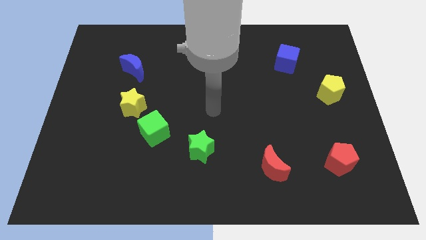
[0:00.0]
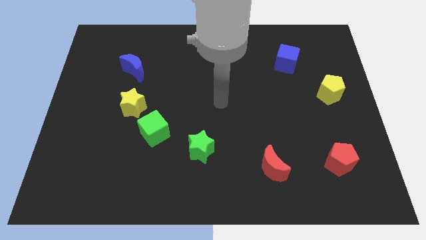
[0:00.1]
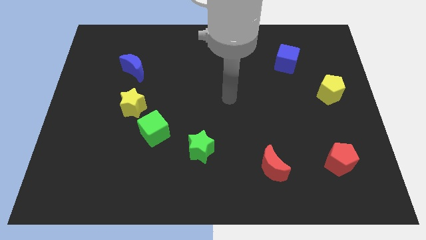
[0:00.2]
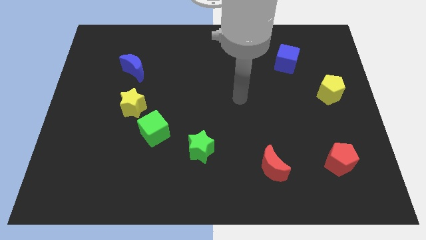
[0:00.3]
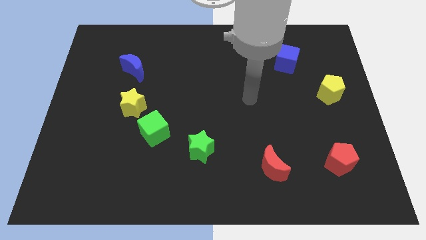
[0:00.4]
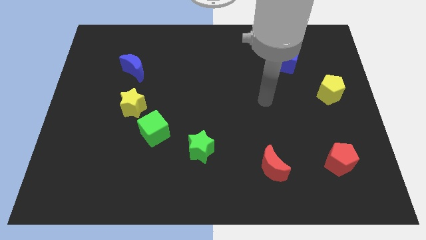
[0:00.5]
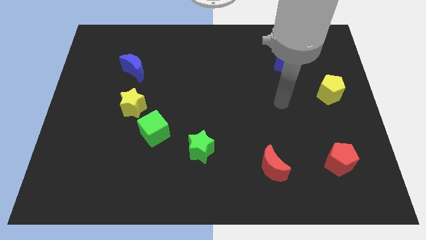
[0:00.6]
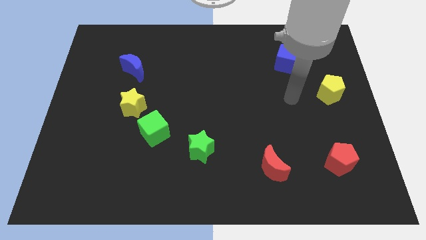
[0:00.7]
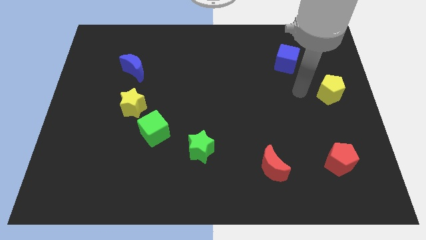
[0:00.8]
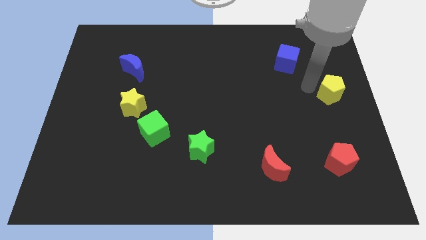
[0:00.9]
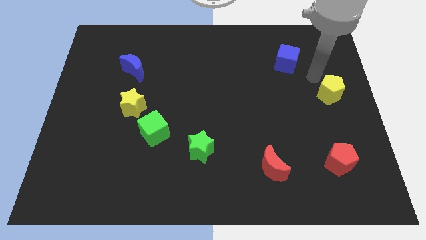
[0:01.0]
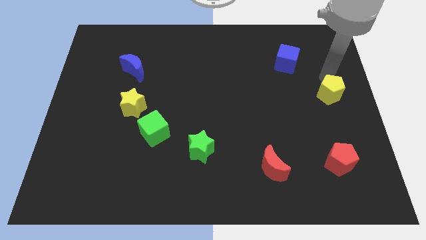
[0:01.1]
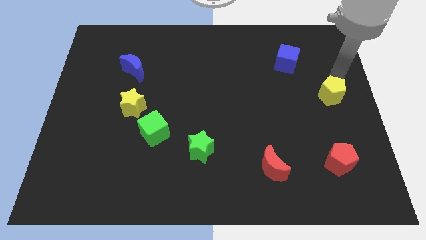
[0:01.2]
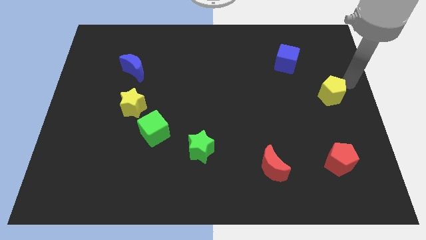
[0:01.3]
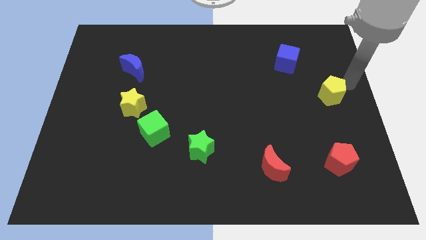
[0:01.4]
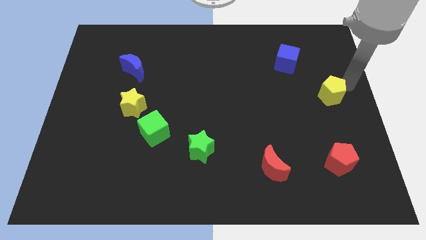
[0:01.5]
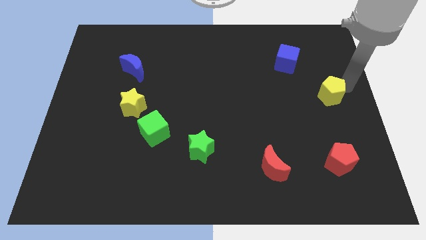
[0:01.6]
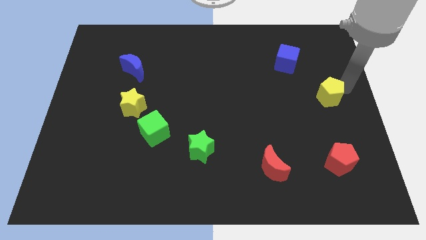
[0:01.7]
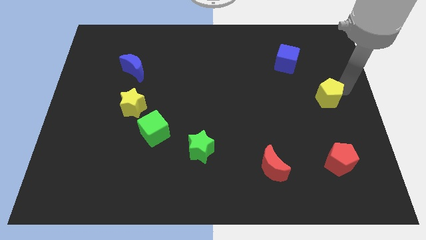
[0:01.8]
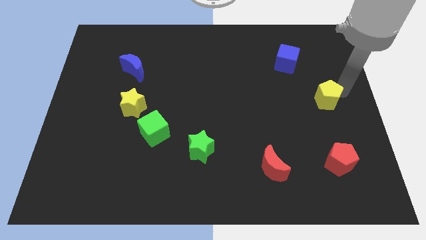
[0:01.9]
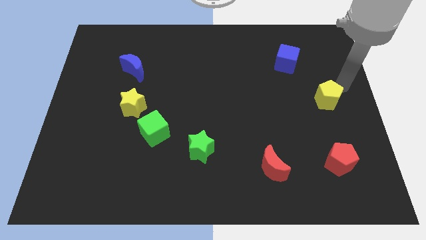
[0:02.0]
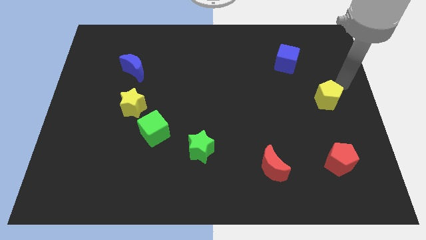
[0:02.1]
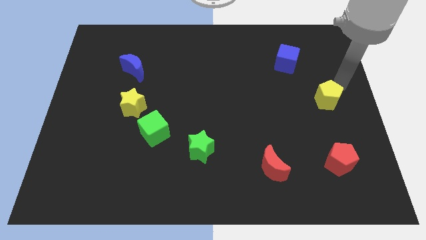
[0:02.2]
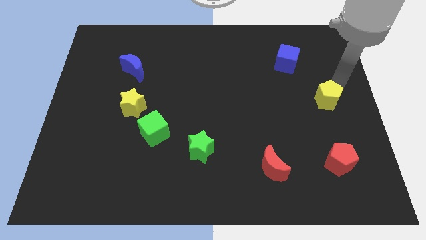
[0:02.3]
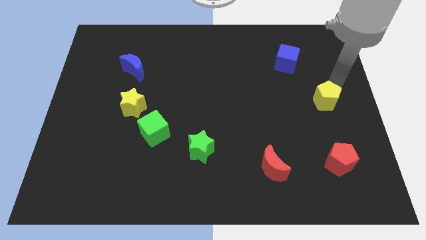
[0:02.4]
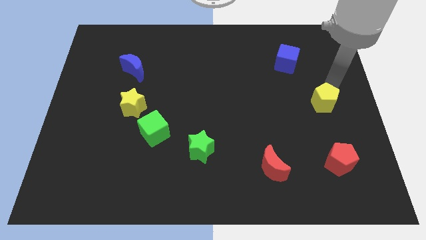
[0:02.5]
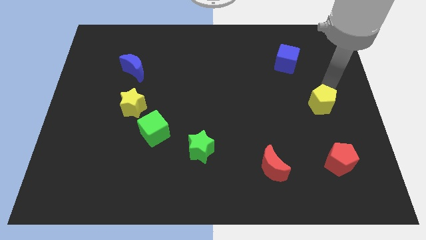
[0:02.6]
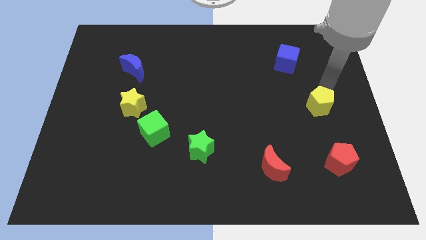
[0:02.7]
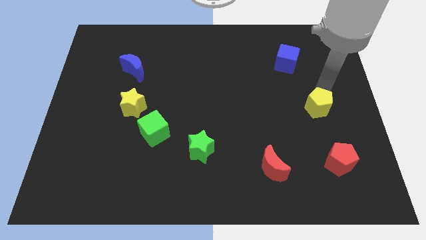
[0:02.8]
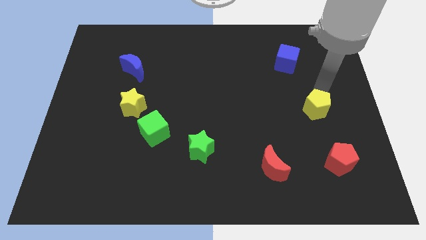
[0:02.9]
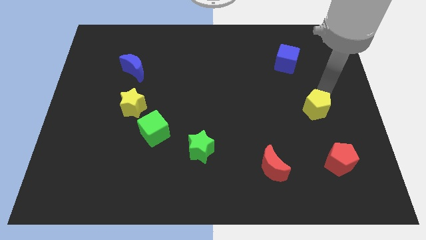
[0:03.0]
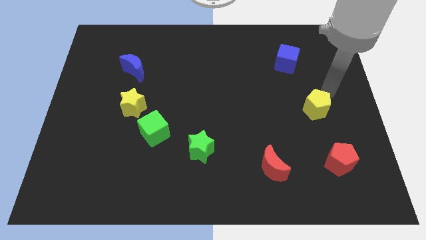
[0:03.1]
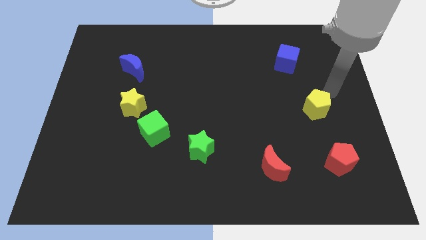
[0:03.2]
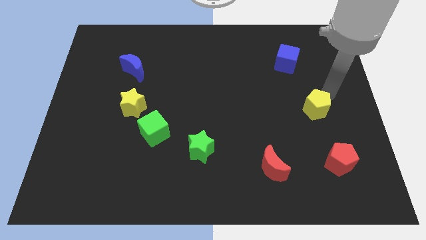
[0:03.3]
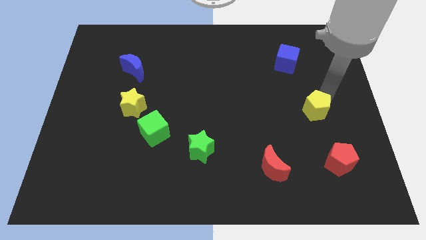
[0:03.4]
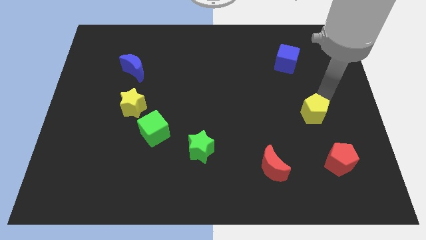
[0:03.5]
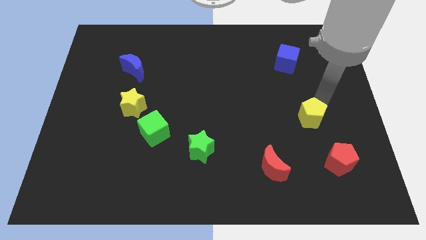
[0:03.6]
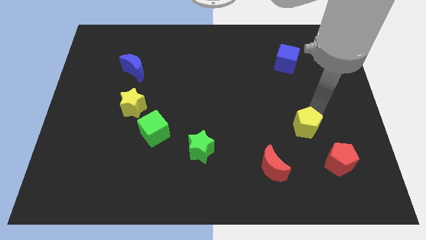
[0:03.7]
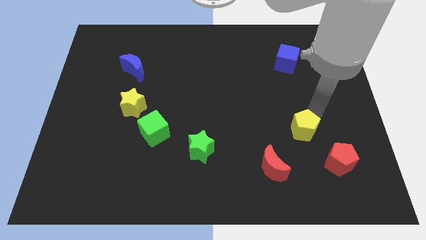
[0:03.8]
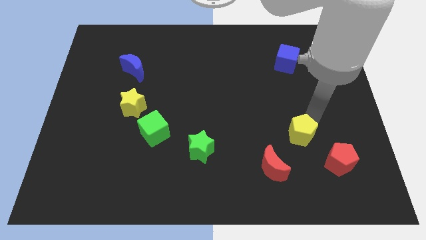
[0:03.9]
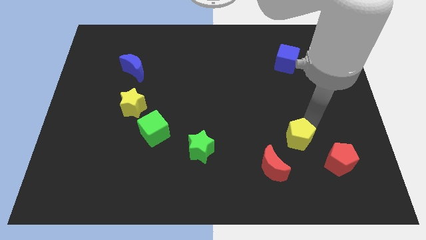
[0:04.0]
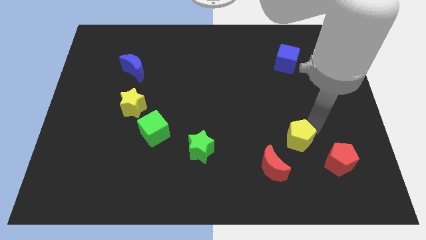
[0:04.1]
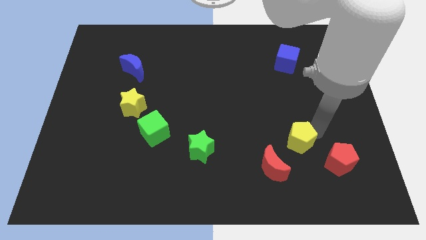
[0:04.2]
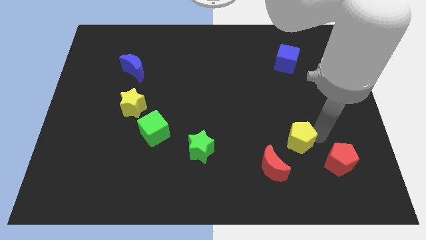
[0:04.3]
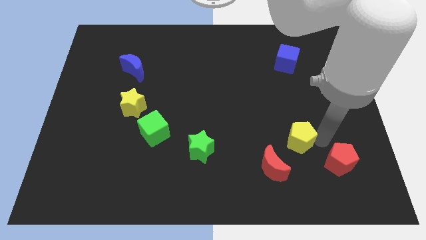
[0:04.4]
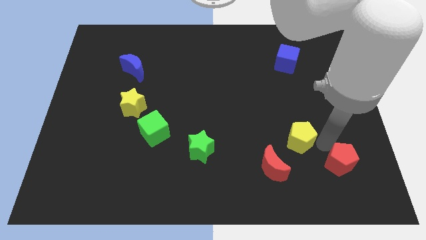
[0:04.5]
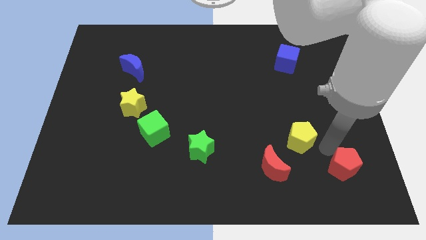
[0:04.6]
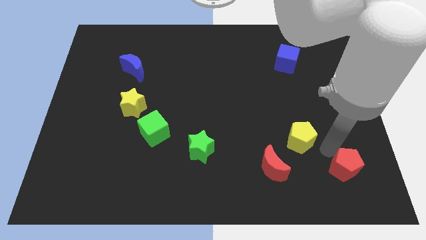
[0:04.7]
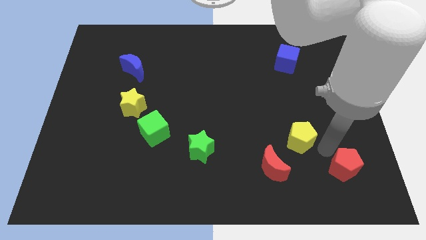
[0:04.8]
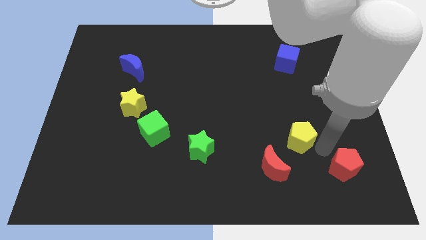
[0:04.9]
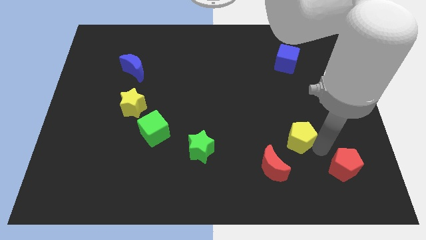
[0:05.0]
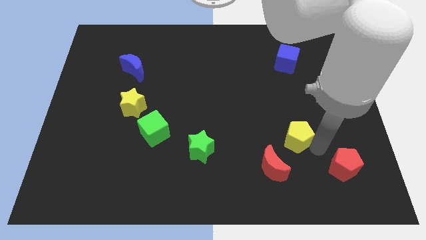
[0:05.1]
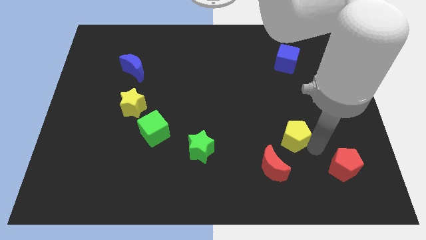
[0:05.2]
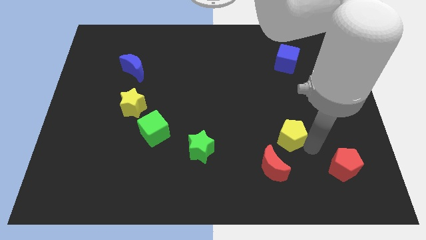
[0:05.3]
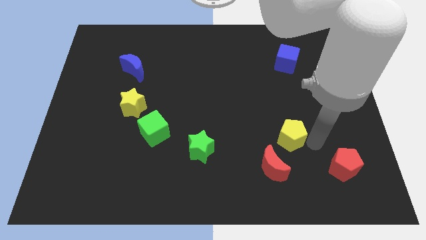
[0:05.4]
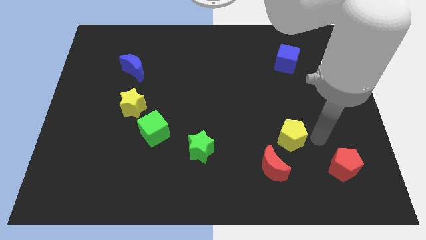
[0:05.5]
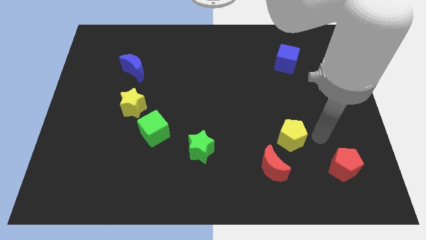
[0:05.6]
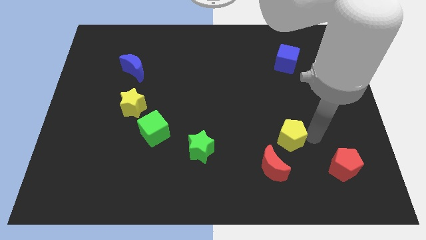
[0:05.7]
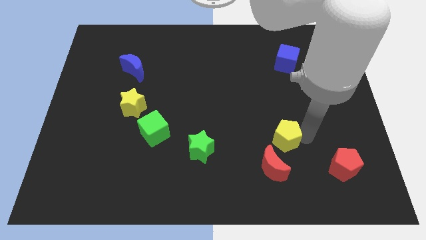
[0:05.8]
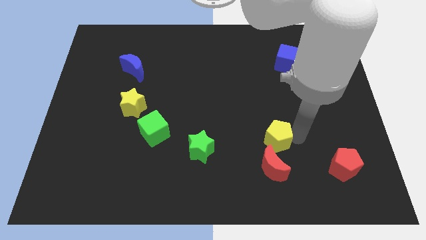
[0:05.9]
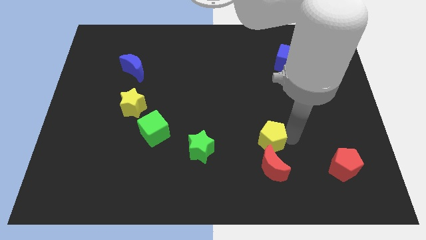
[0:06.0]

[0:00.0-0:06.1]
push the yellow pentagon diagonally down and to the left

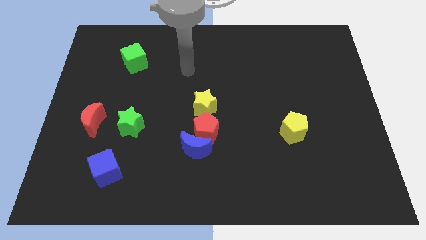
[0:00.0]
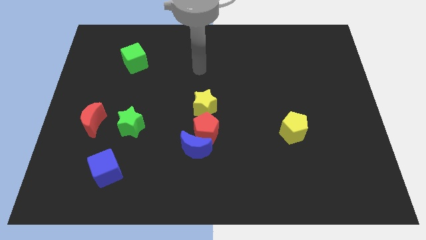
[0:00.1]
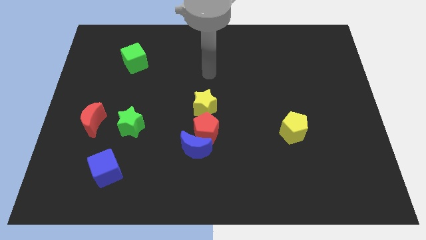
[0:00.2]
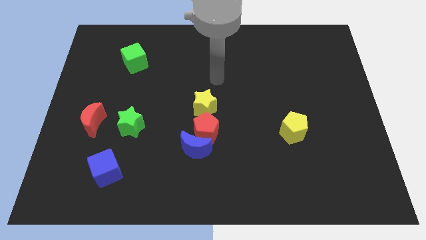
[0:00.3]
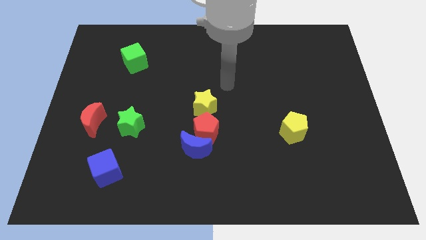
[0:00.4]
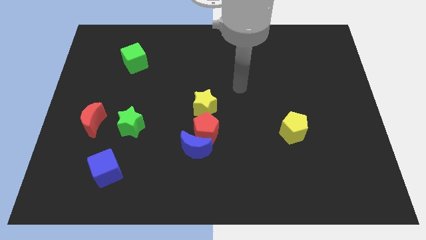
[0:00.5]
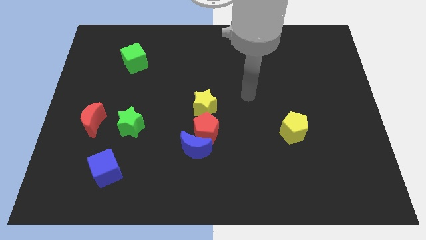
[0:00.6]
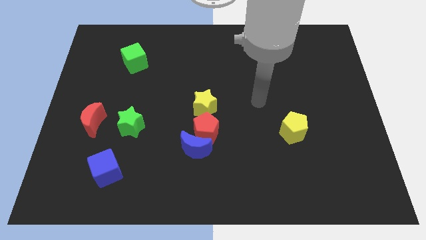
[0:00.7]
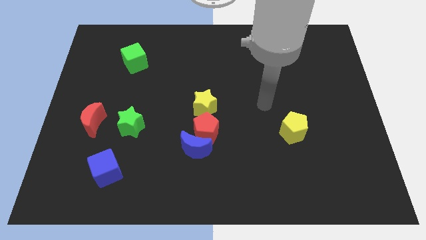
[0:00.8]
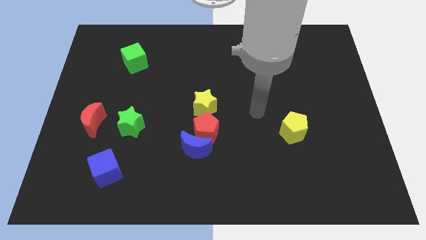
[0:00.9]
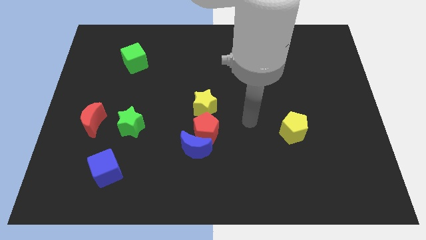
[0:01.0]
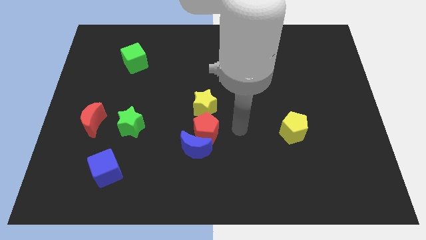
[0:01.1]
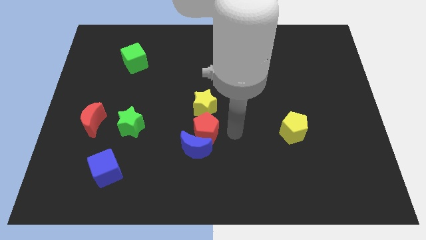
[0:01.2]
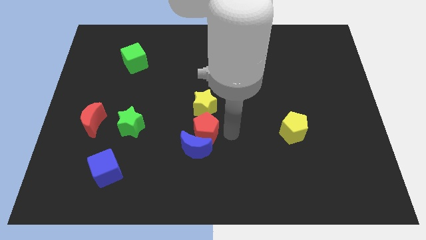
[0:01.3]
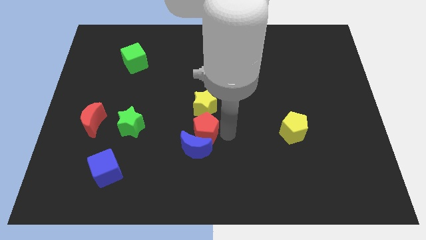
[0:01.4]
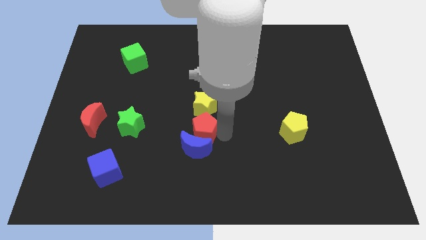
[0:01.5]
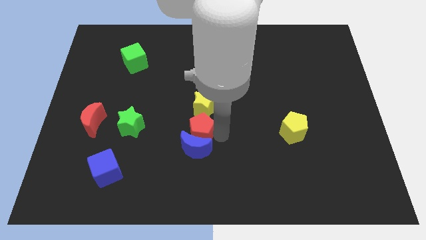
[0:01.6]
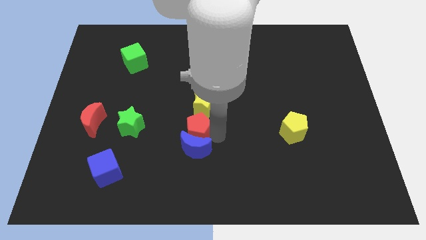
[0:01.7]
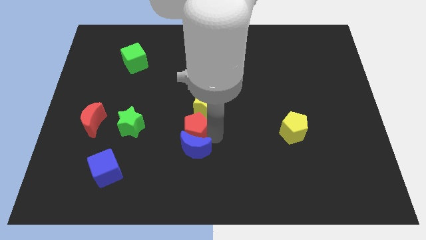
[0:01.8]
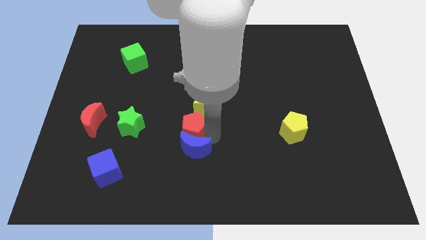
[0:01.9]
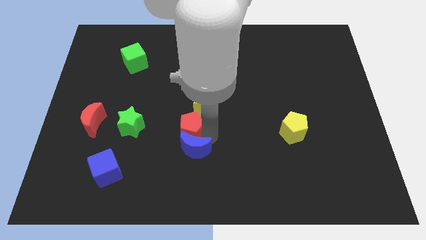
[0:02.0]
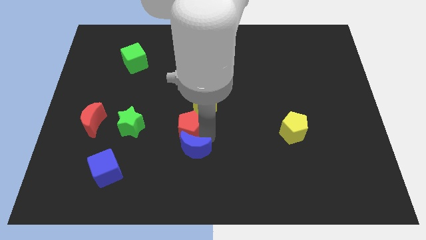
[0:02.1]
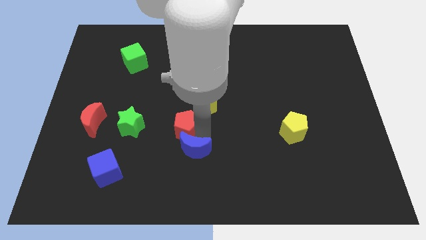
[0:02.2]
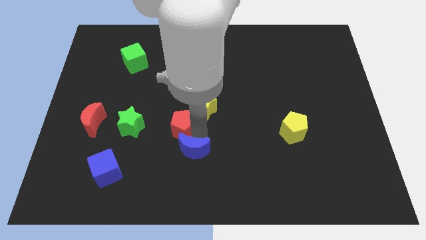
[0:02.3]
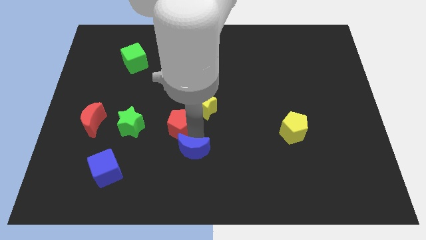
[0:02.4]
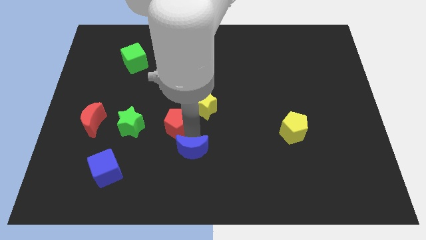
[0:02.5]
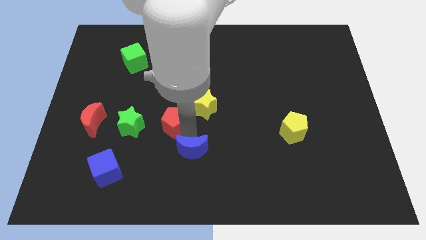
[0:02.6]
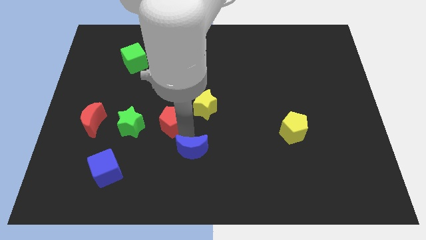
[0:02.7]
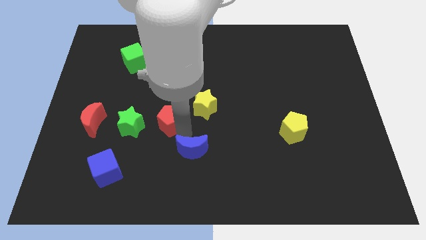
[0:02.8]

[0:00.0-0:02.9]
slide the red pentagon upwards and then to the left a bit
